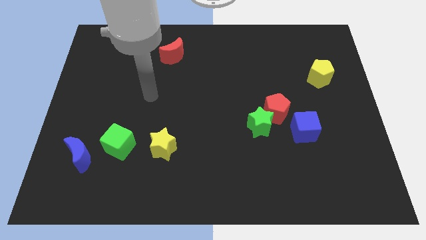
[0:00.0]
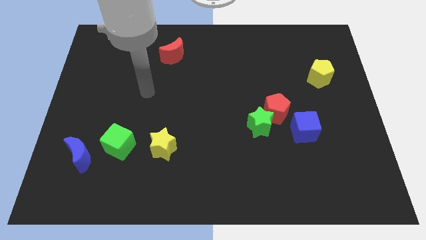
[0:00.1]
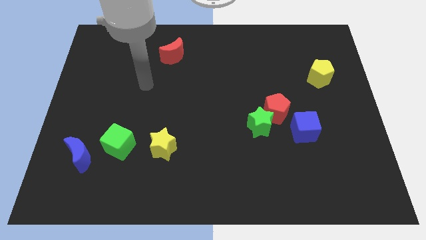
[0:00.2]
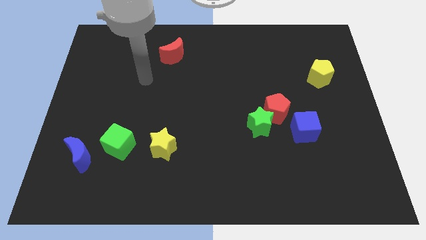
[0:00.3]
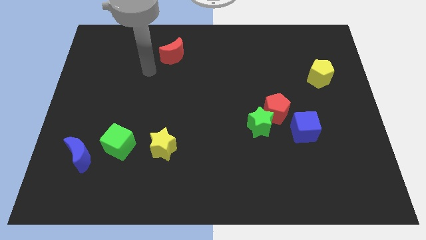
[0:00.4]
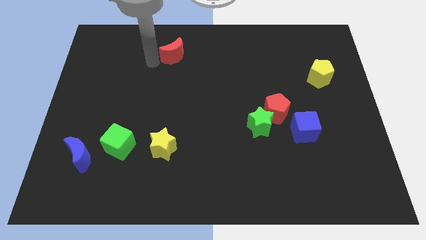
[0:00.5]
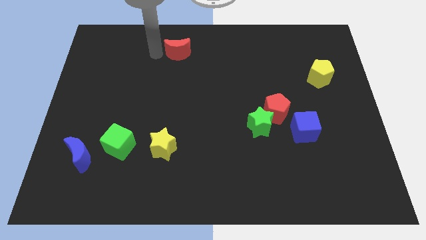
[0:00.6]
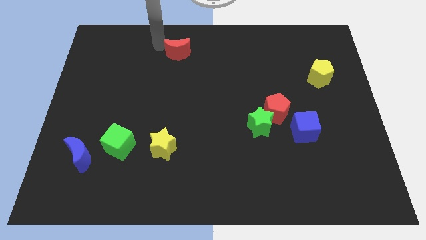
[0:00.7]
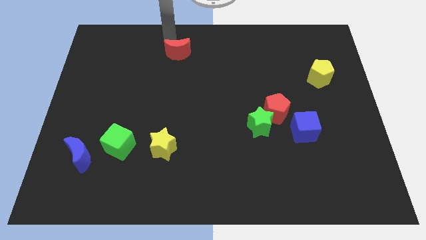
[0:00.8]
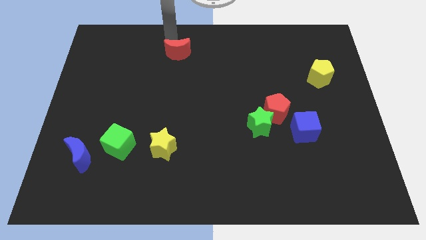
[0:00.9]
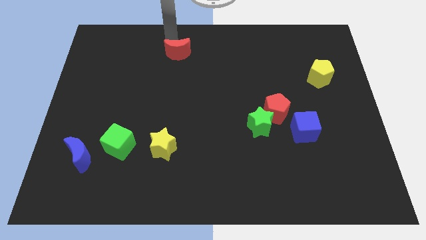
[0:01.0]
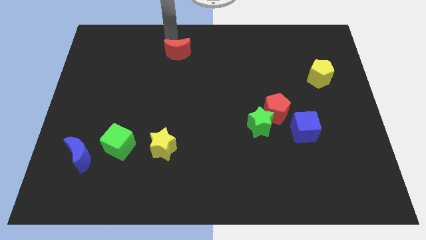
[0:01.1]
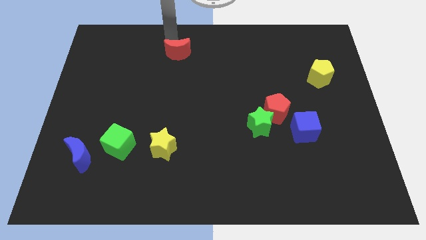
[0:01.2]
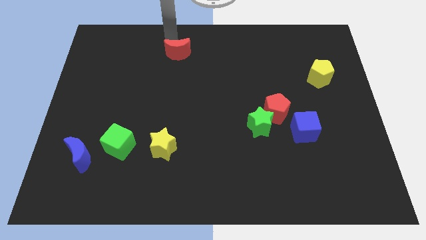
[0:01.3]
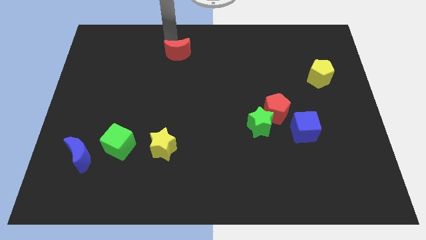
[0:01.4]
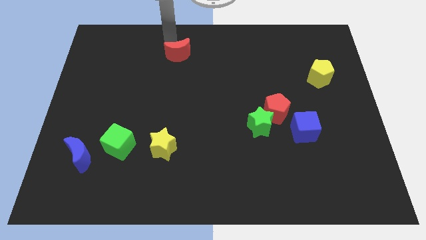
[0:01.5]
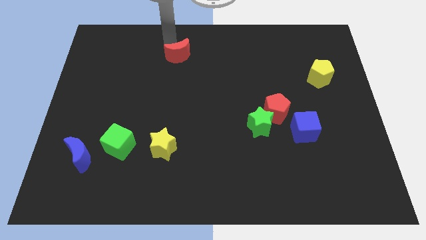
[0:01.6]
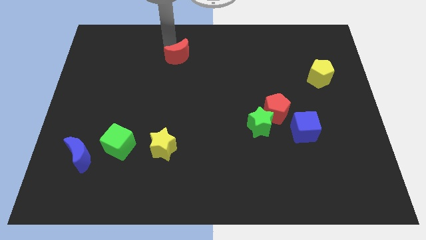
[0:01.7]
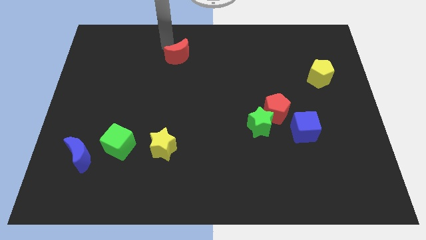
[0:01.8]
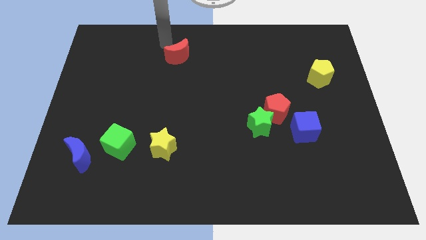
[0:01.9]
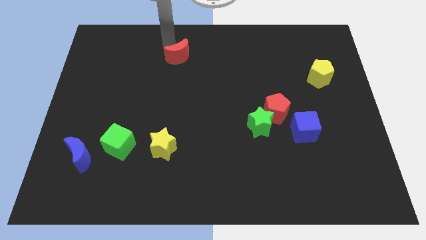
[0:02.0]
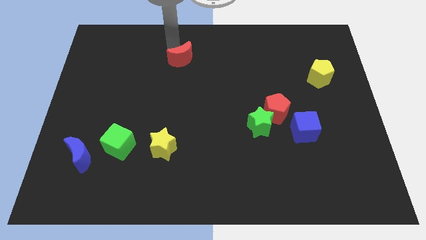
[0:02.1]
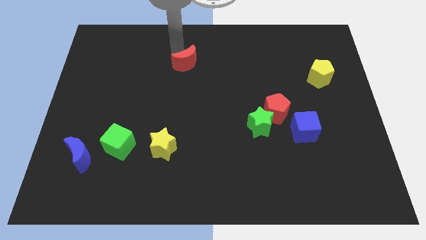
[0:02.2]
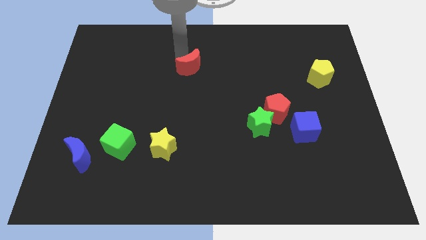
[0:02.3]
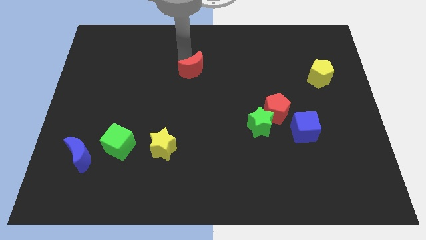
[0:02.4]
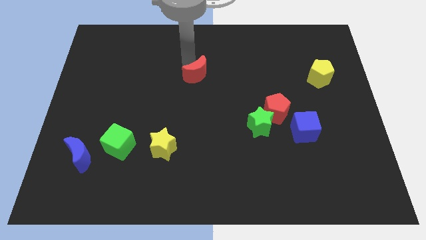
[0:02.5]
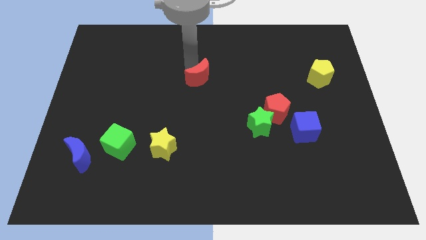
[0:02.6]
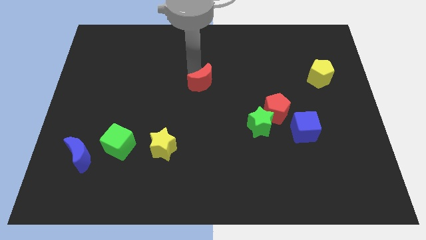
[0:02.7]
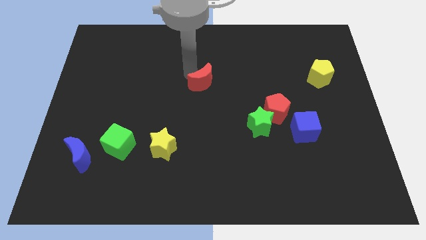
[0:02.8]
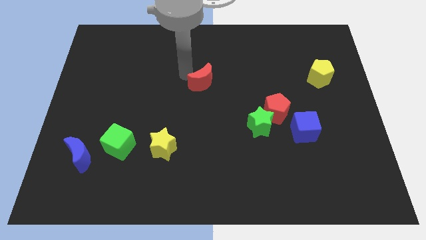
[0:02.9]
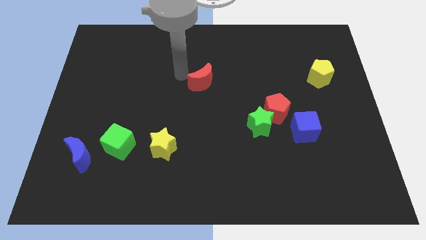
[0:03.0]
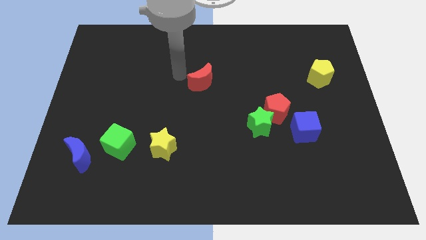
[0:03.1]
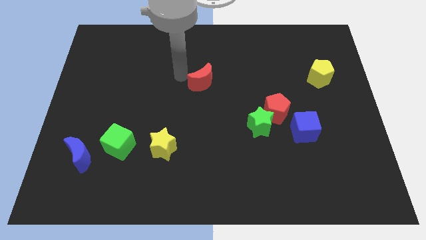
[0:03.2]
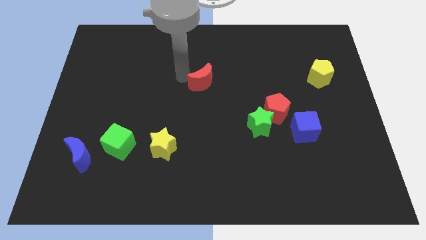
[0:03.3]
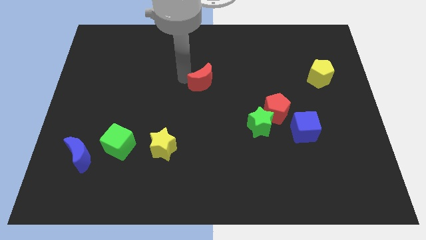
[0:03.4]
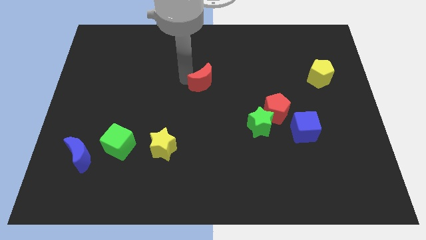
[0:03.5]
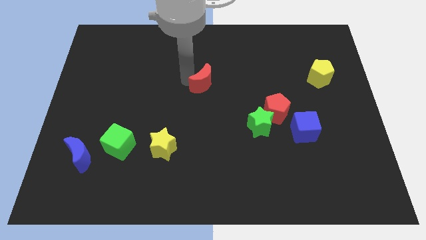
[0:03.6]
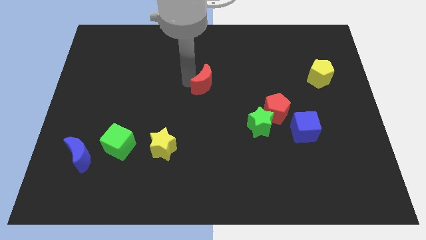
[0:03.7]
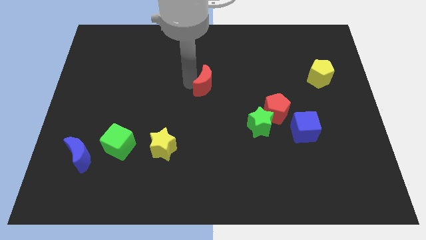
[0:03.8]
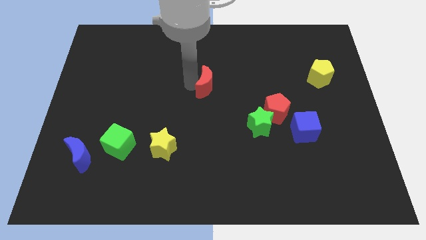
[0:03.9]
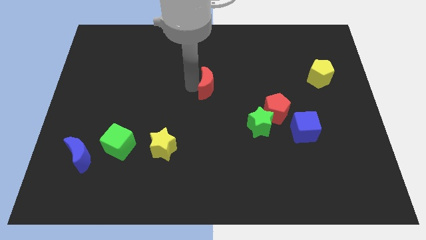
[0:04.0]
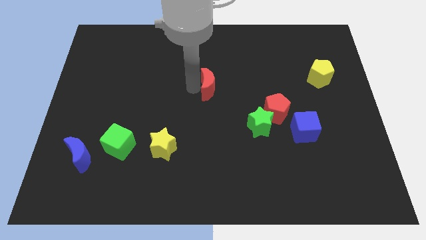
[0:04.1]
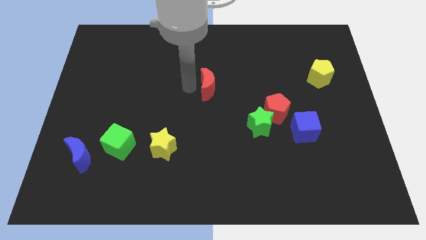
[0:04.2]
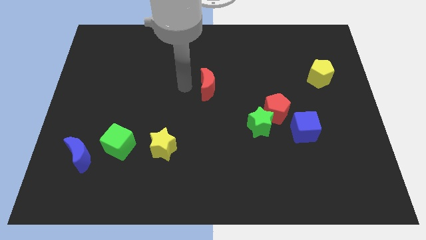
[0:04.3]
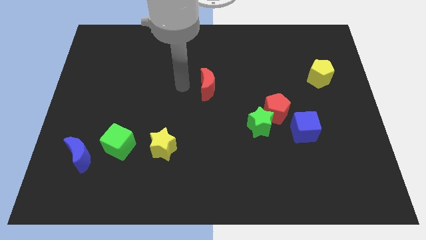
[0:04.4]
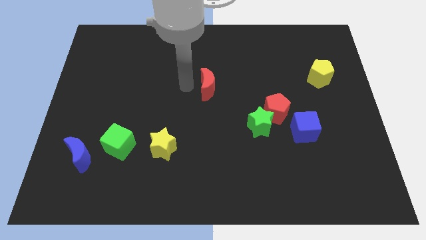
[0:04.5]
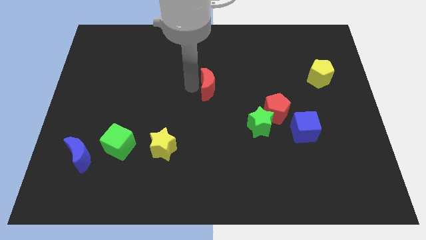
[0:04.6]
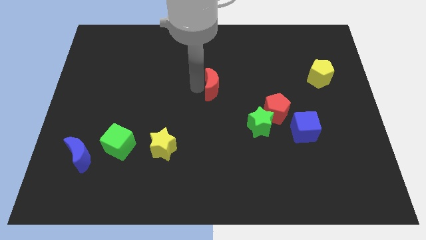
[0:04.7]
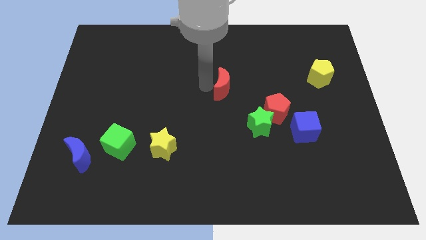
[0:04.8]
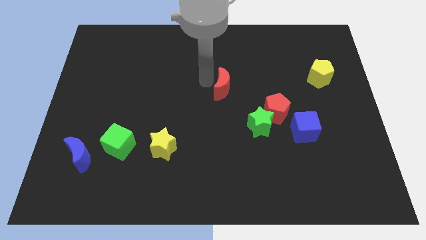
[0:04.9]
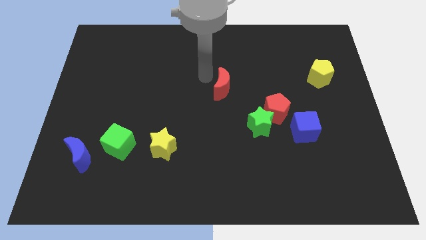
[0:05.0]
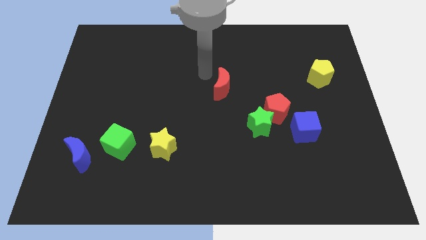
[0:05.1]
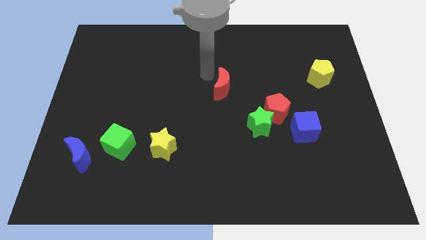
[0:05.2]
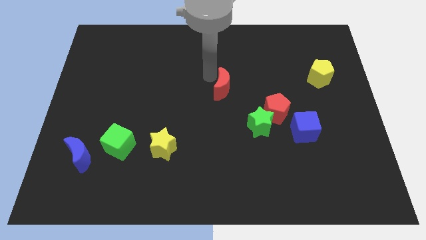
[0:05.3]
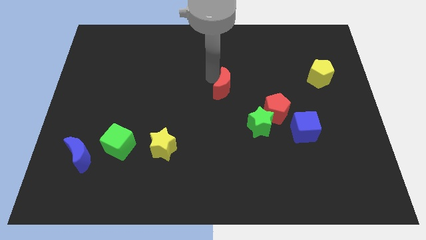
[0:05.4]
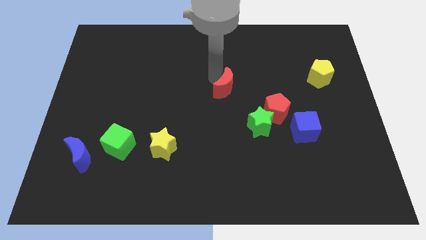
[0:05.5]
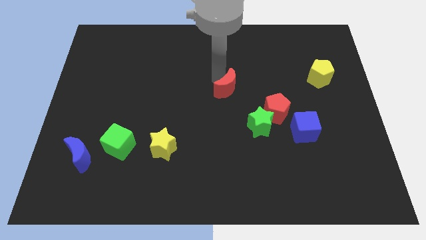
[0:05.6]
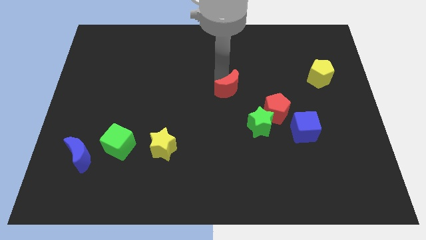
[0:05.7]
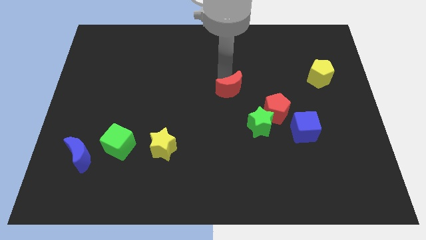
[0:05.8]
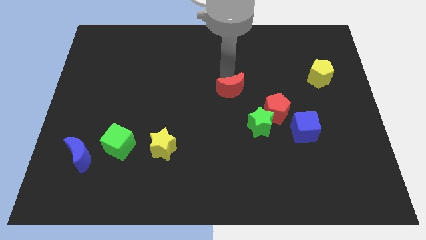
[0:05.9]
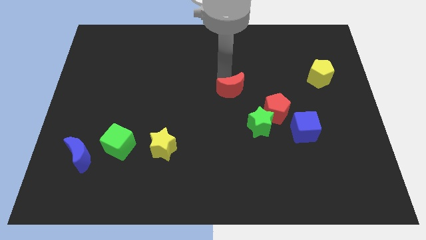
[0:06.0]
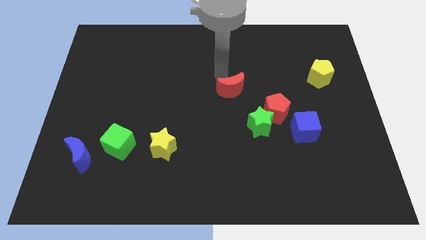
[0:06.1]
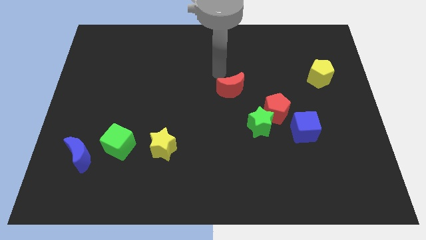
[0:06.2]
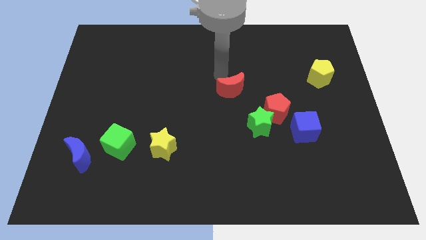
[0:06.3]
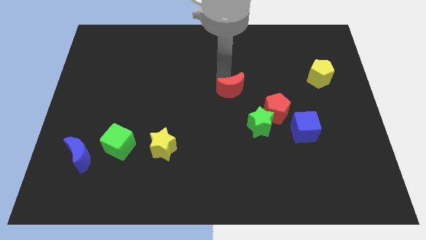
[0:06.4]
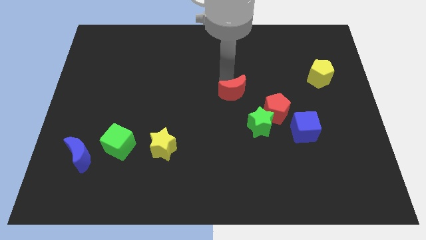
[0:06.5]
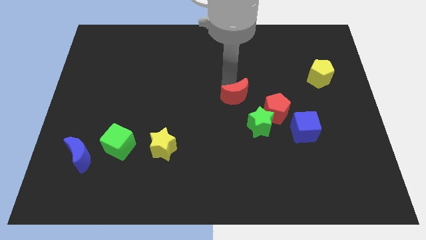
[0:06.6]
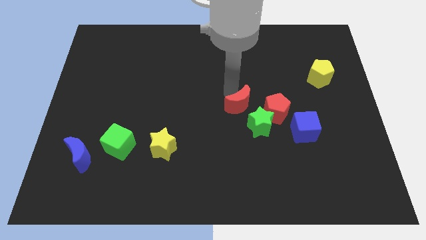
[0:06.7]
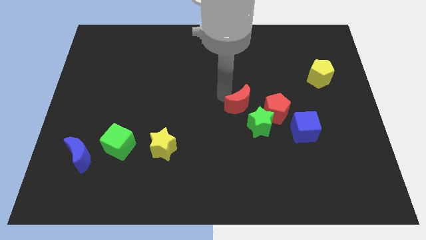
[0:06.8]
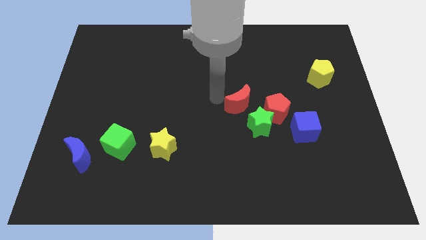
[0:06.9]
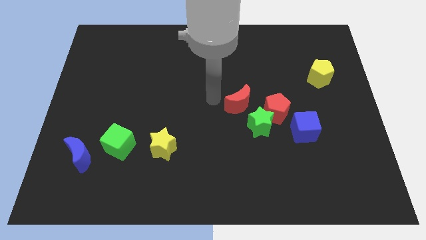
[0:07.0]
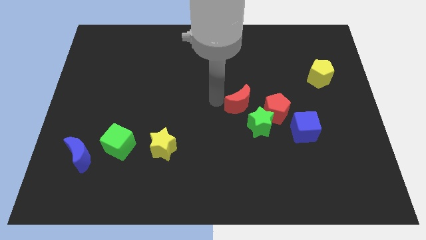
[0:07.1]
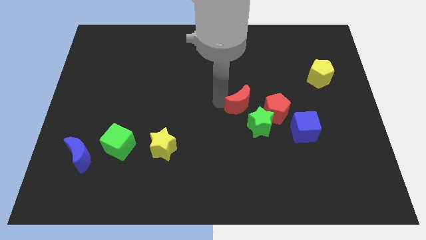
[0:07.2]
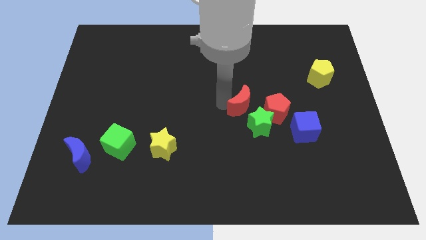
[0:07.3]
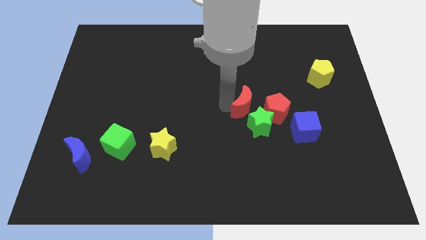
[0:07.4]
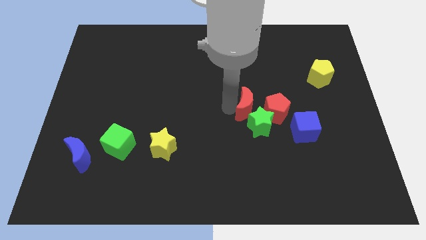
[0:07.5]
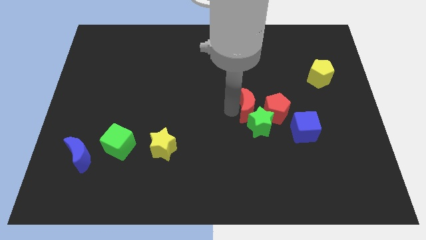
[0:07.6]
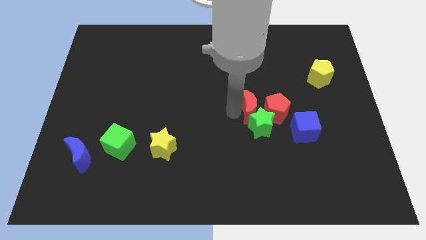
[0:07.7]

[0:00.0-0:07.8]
move the red moon close to the red pentagon
